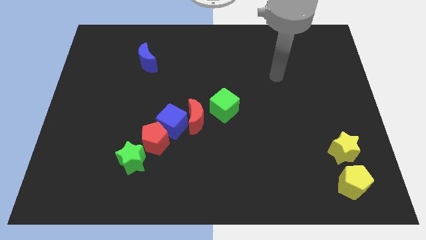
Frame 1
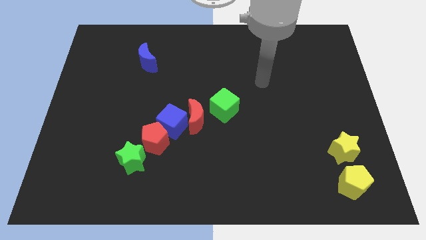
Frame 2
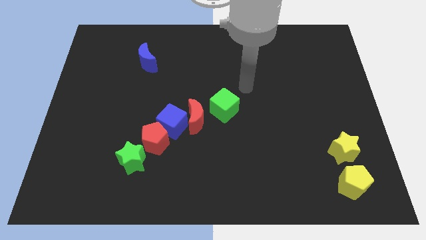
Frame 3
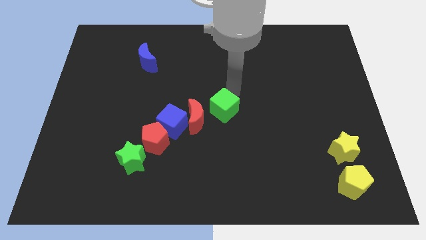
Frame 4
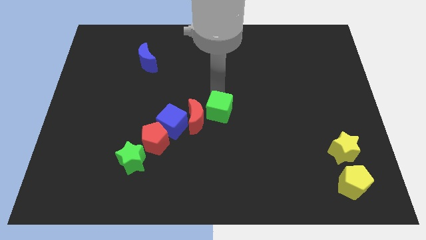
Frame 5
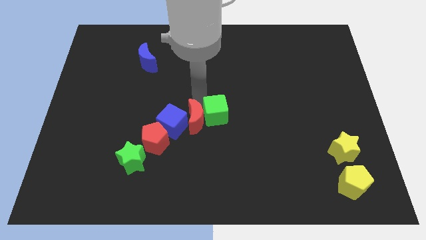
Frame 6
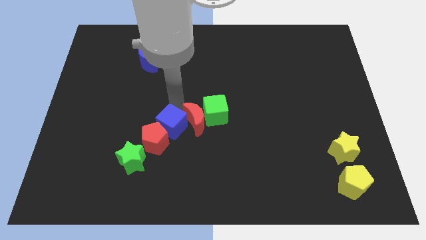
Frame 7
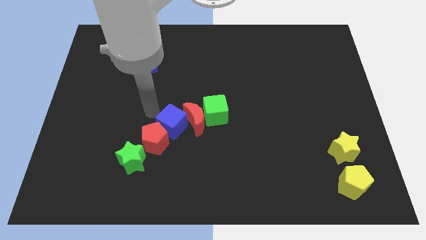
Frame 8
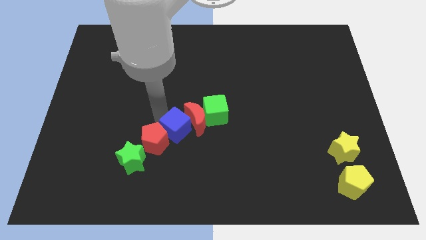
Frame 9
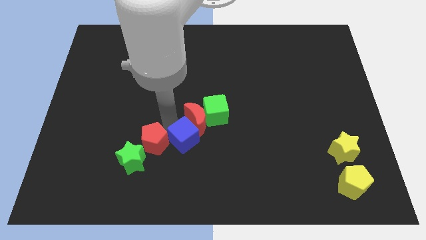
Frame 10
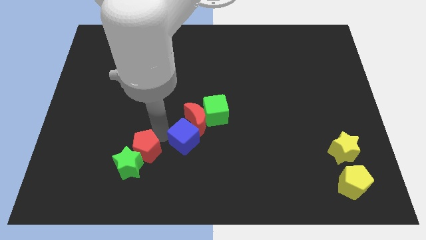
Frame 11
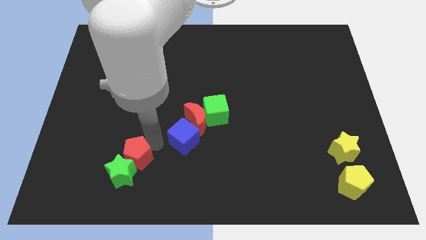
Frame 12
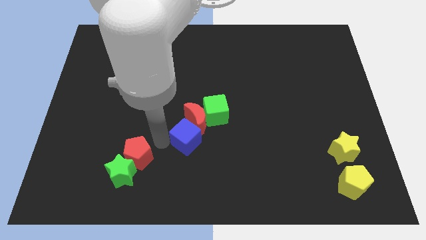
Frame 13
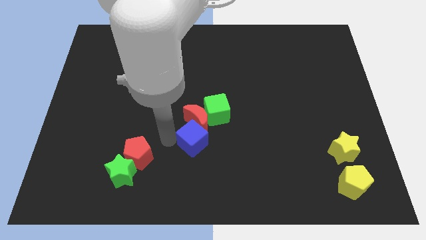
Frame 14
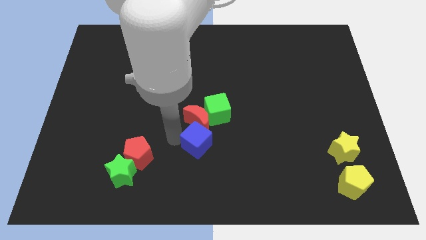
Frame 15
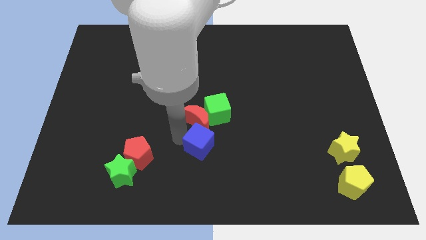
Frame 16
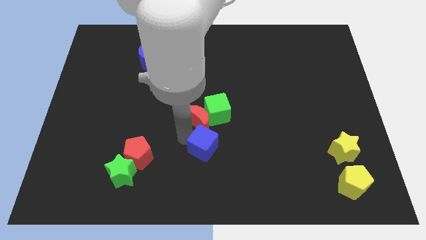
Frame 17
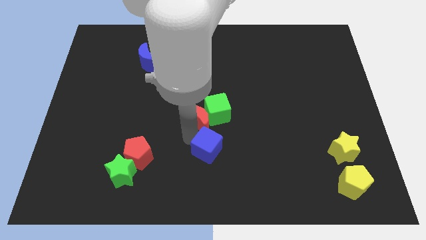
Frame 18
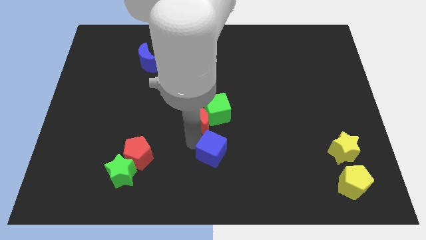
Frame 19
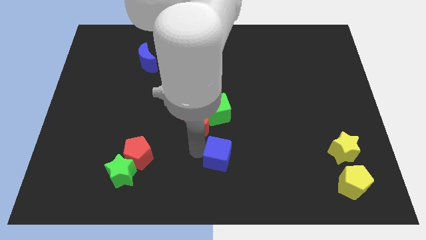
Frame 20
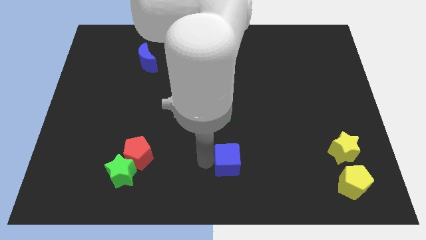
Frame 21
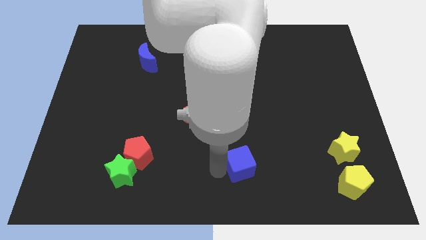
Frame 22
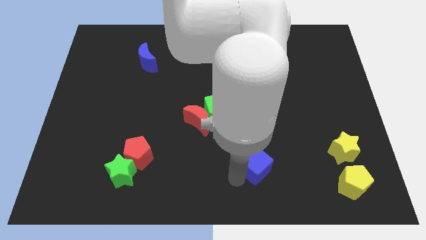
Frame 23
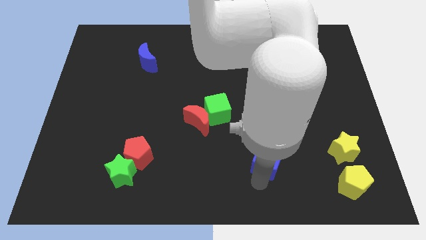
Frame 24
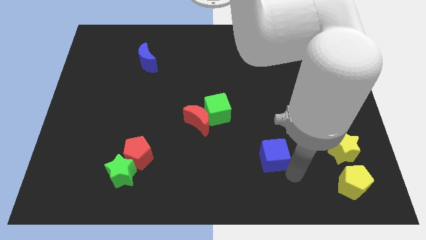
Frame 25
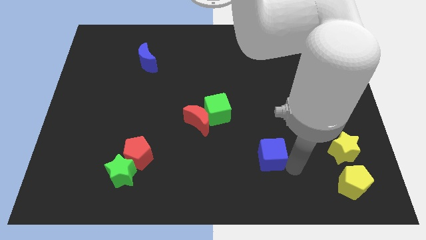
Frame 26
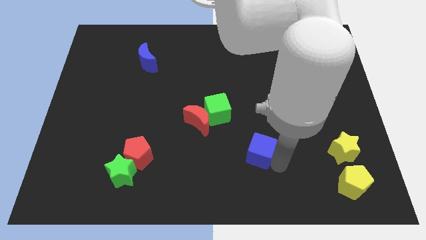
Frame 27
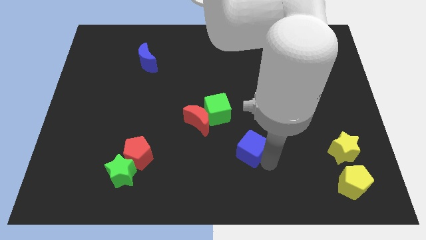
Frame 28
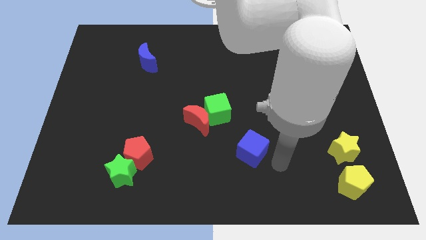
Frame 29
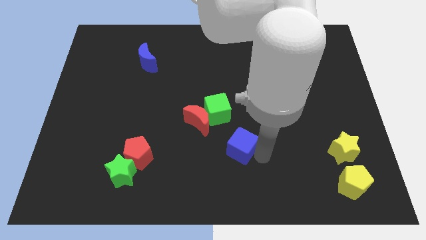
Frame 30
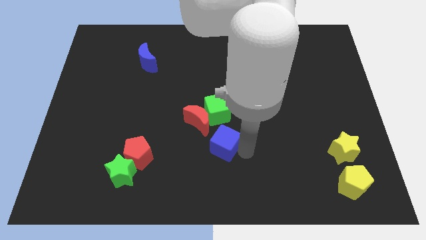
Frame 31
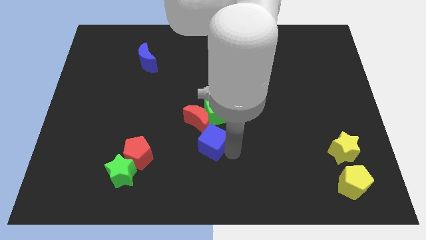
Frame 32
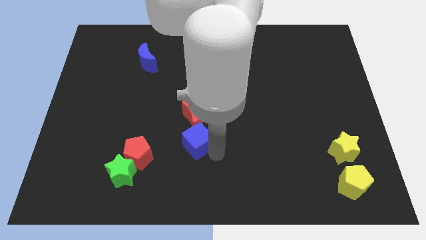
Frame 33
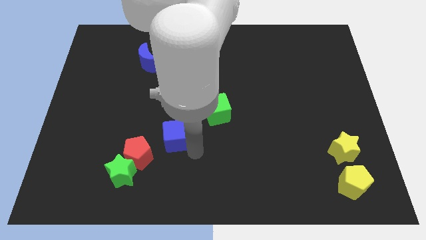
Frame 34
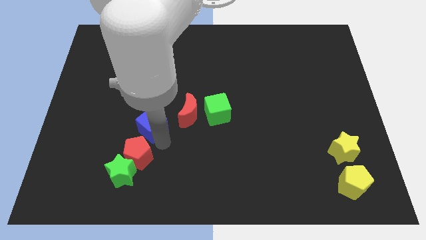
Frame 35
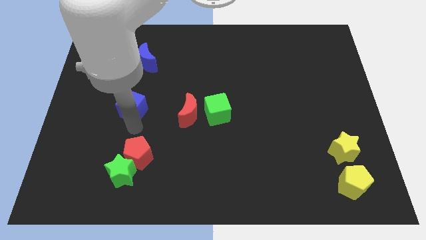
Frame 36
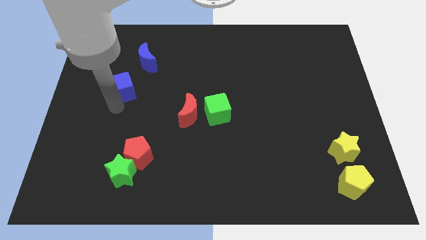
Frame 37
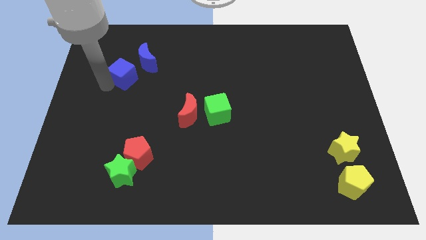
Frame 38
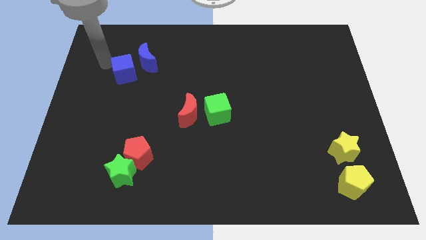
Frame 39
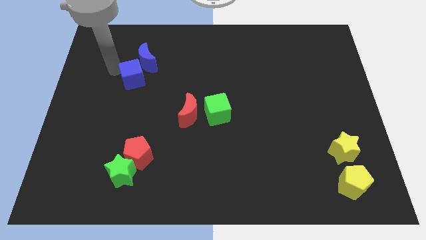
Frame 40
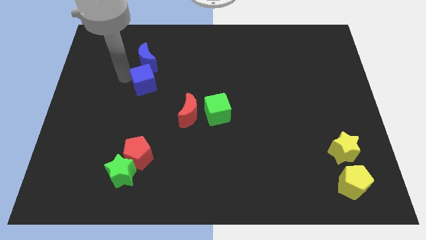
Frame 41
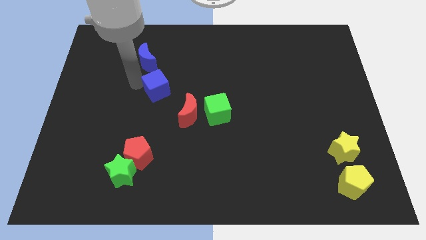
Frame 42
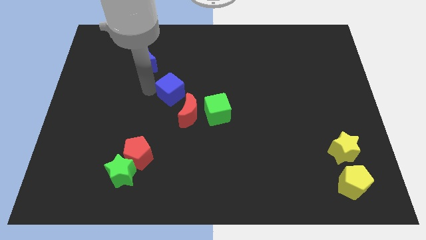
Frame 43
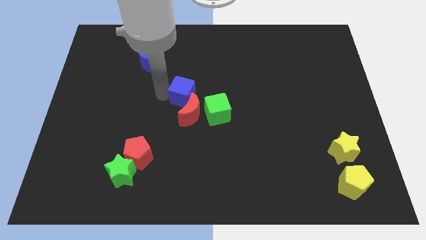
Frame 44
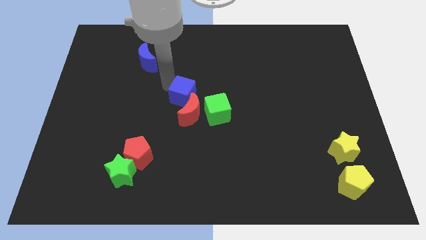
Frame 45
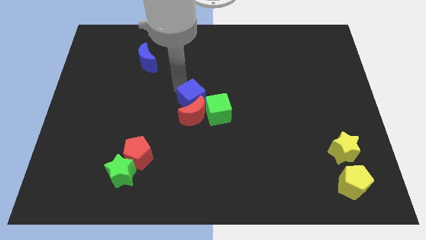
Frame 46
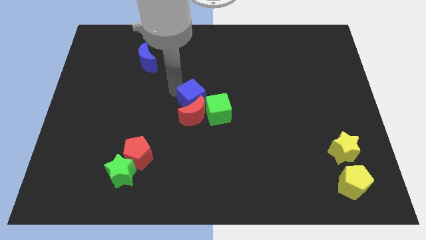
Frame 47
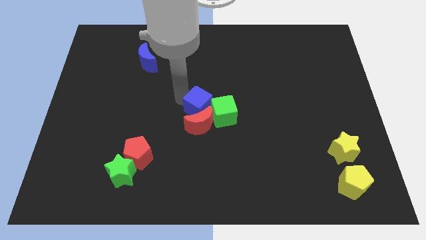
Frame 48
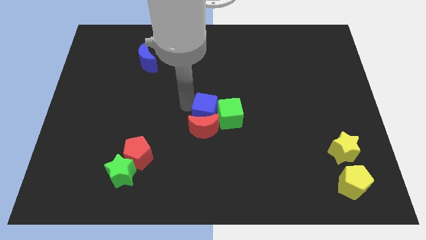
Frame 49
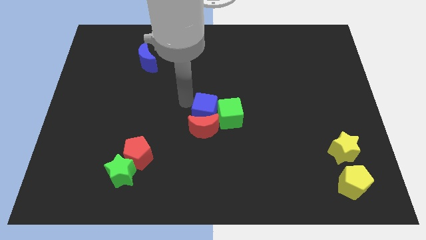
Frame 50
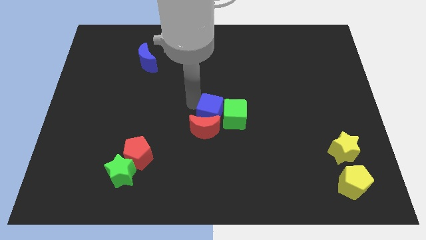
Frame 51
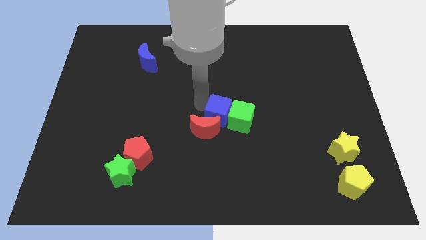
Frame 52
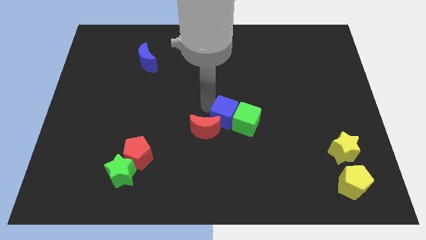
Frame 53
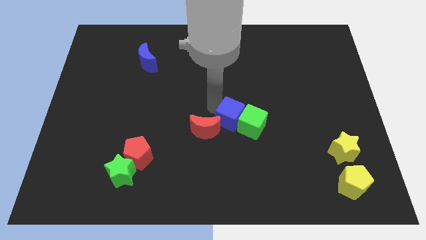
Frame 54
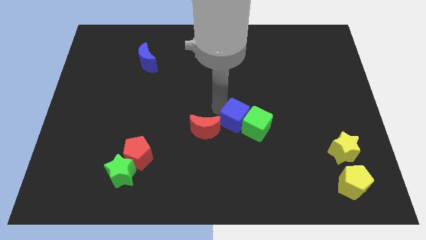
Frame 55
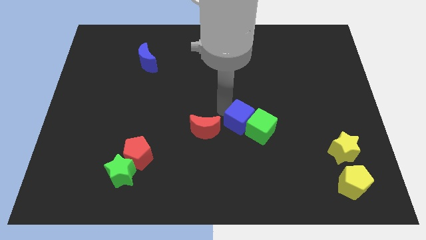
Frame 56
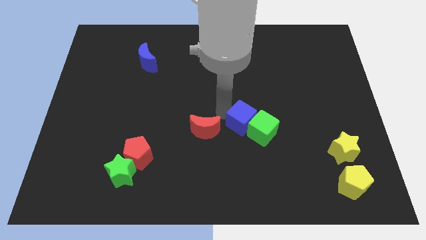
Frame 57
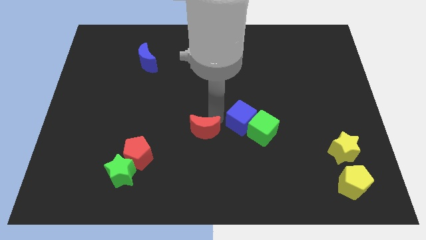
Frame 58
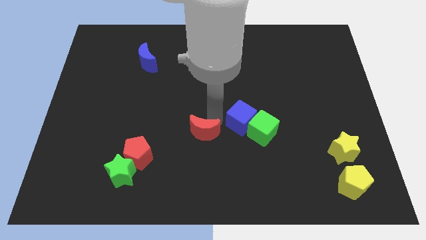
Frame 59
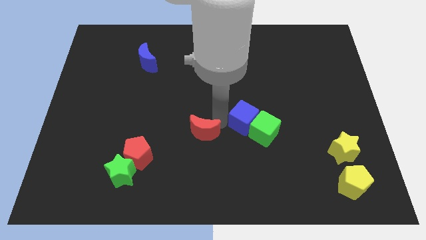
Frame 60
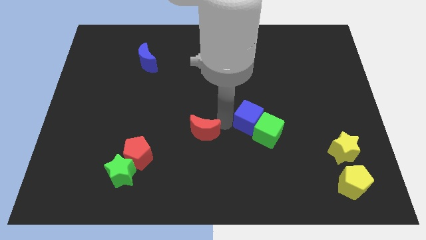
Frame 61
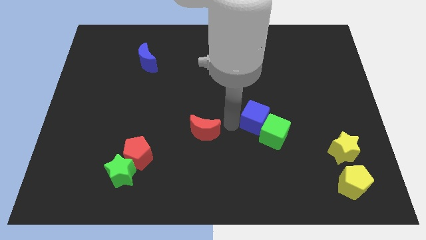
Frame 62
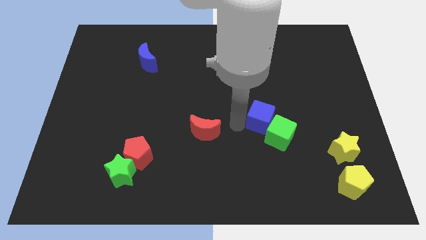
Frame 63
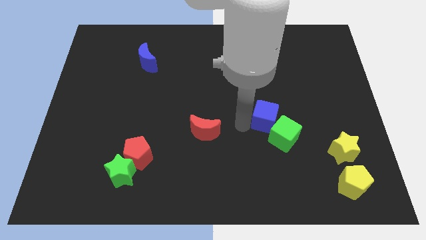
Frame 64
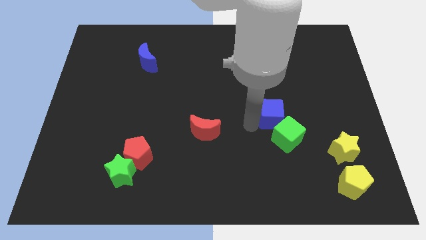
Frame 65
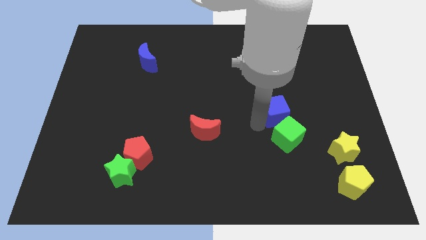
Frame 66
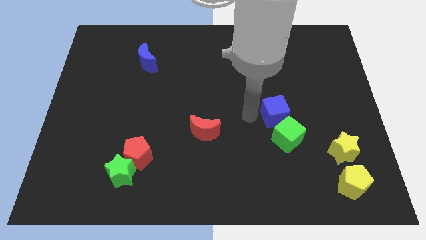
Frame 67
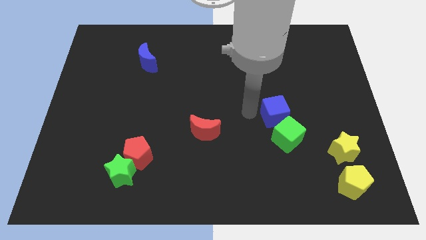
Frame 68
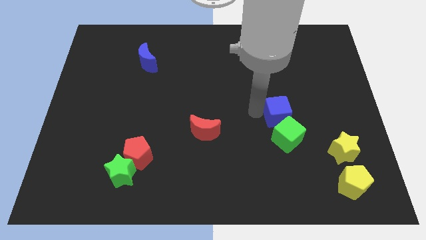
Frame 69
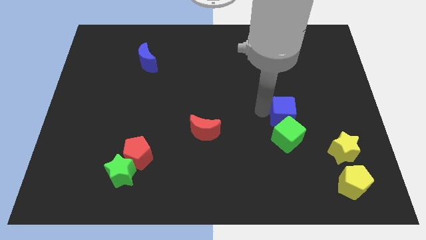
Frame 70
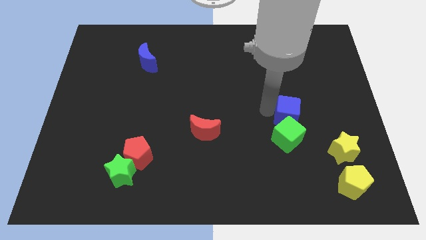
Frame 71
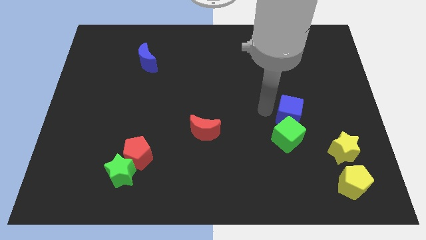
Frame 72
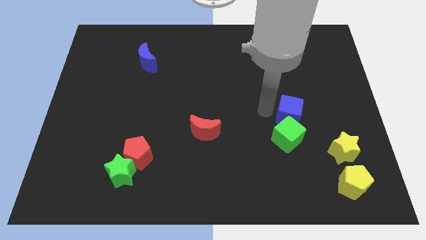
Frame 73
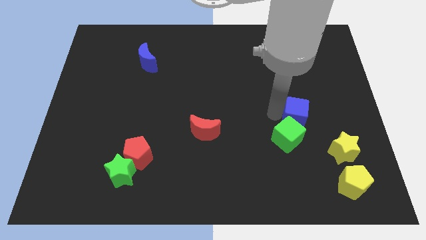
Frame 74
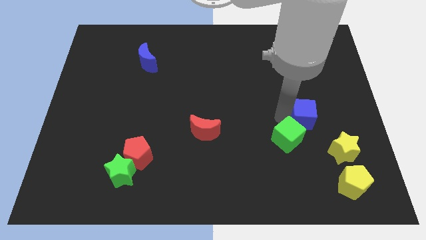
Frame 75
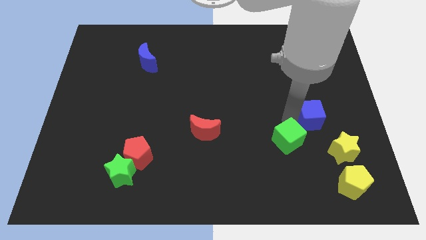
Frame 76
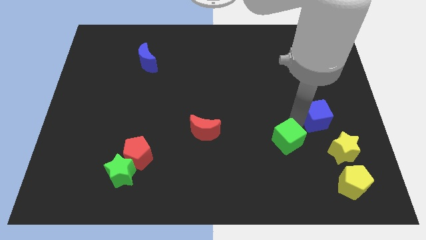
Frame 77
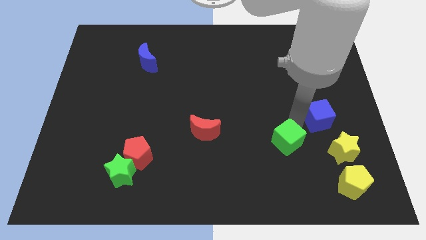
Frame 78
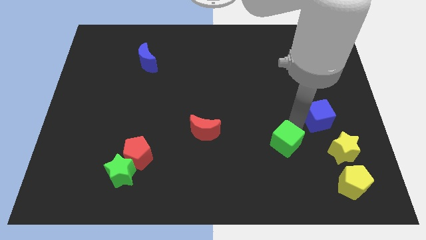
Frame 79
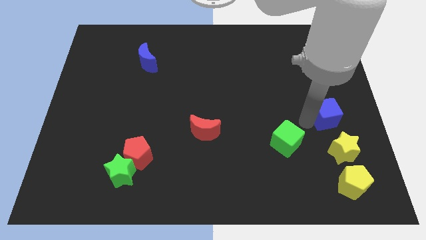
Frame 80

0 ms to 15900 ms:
push the blue cube to the right side of the board
